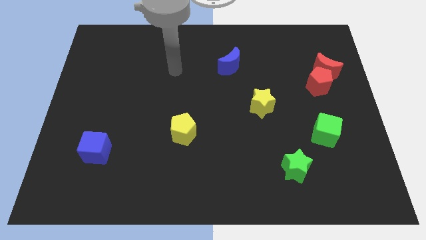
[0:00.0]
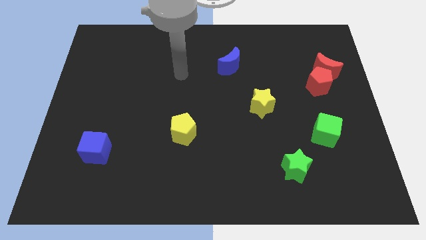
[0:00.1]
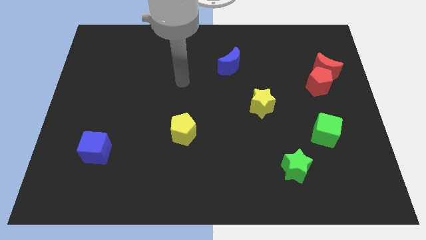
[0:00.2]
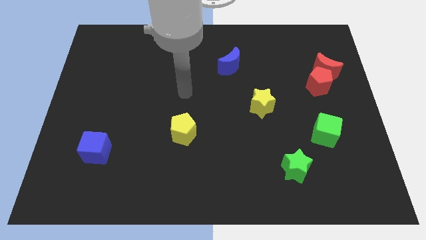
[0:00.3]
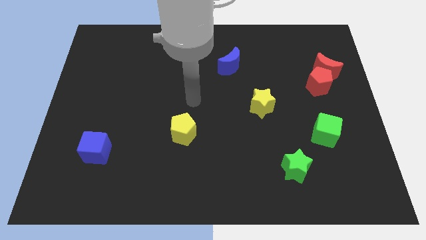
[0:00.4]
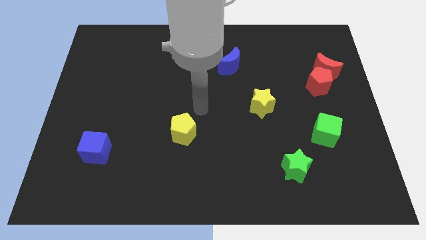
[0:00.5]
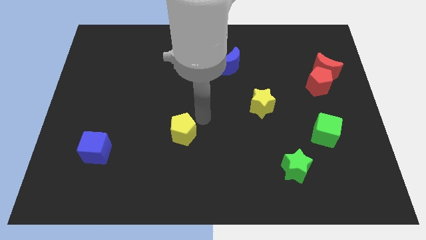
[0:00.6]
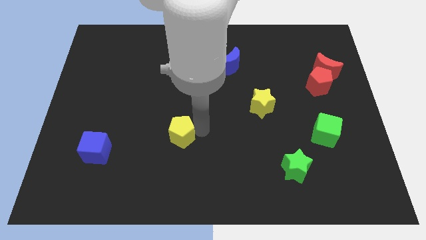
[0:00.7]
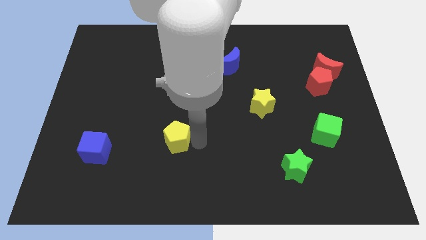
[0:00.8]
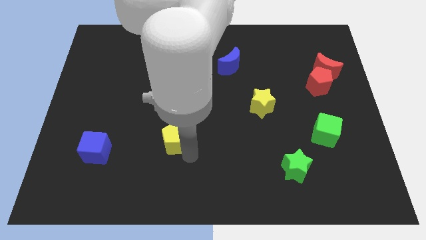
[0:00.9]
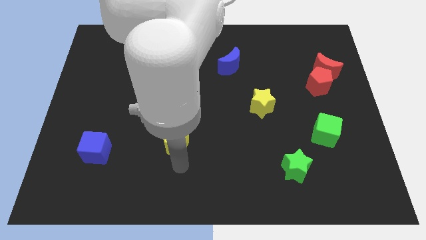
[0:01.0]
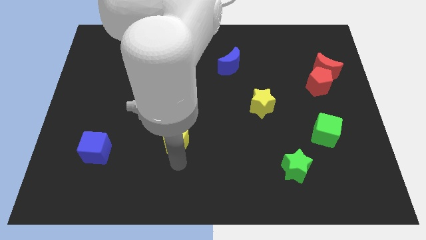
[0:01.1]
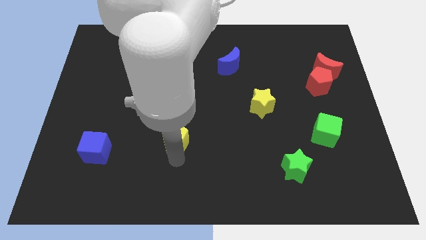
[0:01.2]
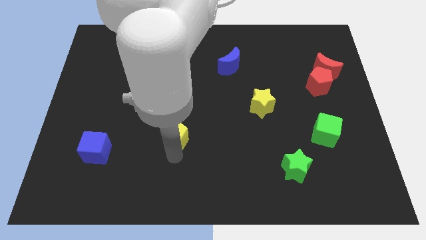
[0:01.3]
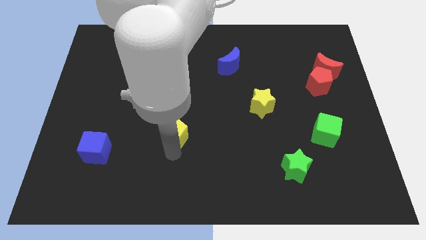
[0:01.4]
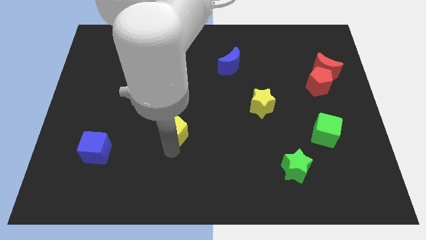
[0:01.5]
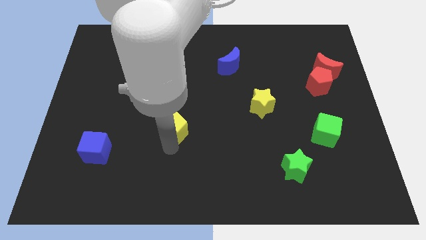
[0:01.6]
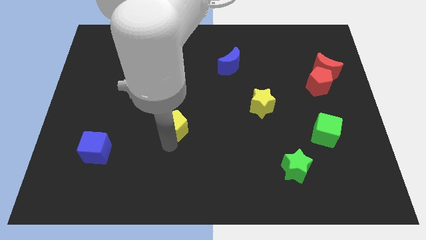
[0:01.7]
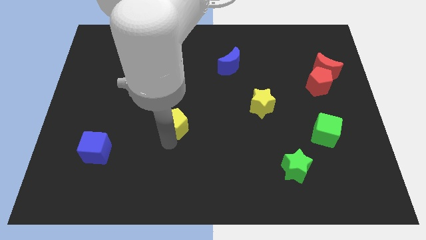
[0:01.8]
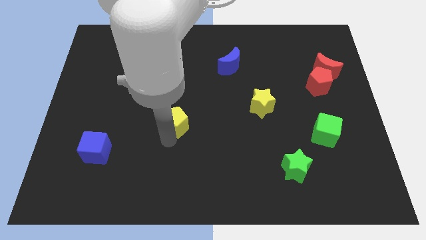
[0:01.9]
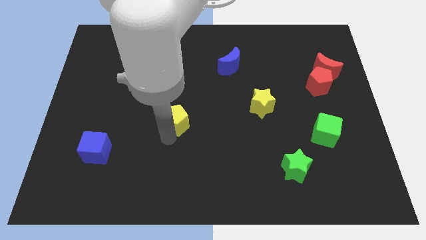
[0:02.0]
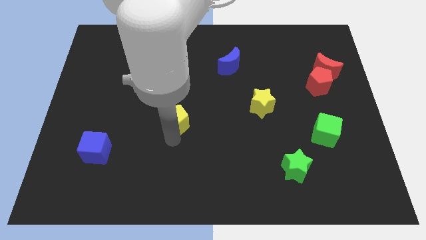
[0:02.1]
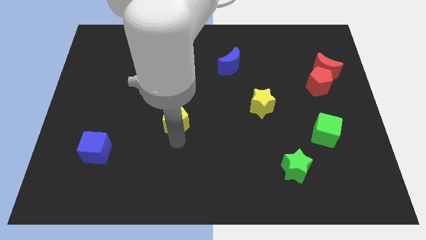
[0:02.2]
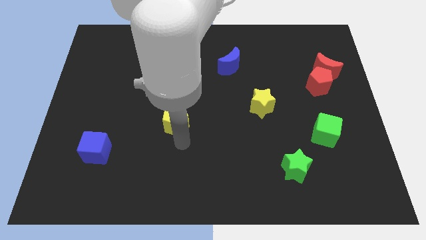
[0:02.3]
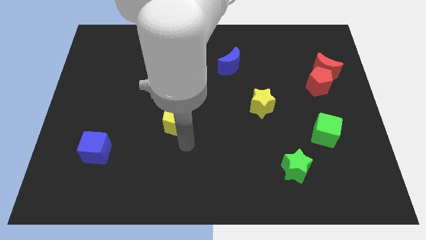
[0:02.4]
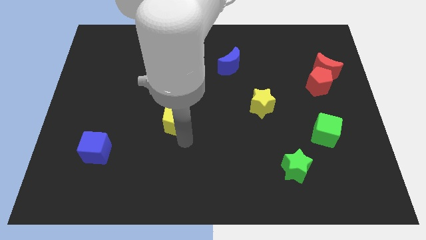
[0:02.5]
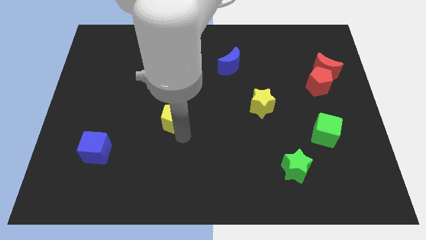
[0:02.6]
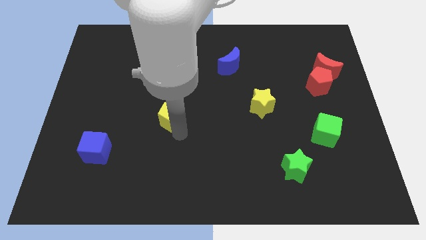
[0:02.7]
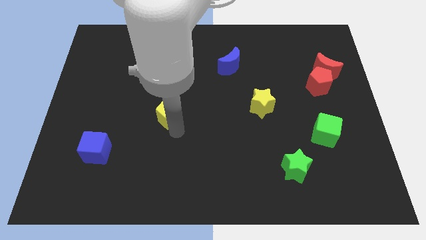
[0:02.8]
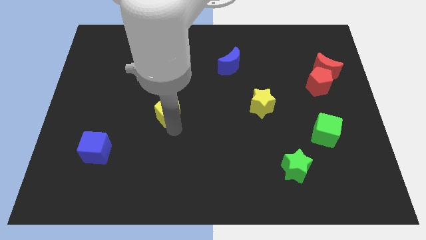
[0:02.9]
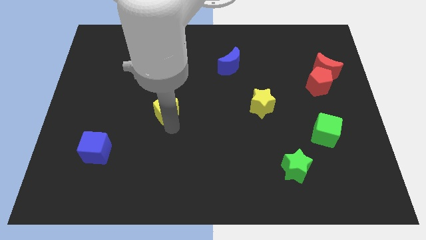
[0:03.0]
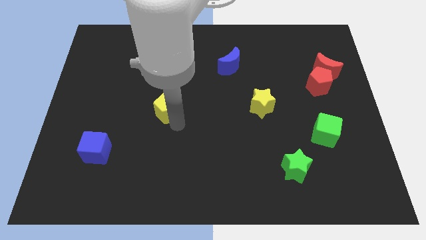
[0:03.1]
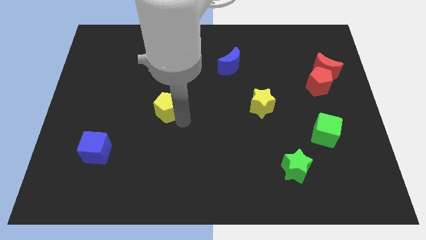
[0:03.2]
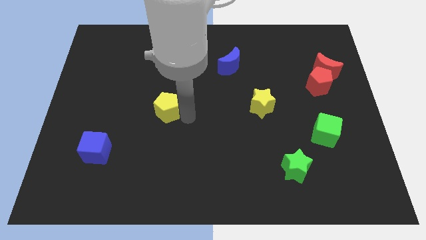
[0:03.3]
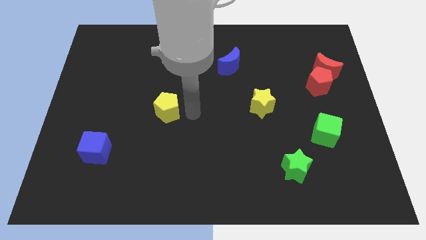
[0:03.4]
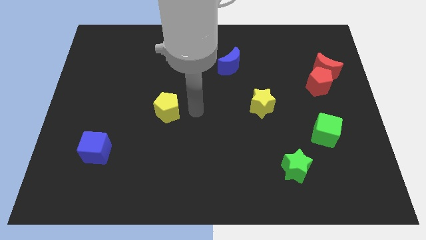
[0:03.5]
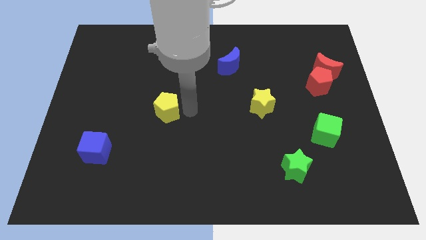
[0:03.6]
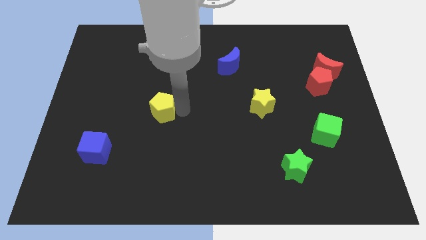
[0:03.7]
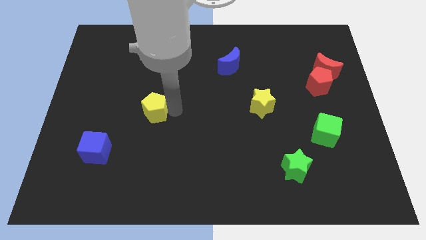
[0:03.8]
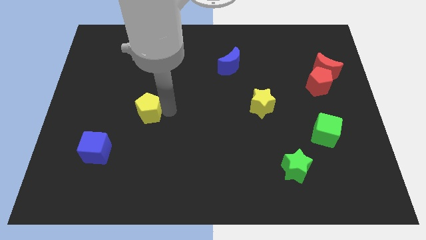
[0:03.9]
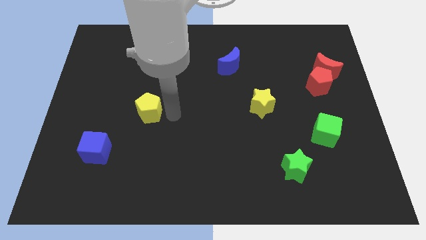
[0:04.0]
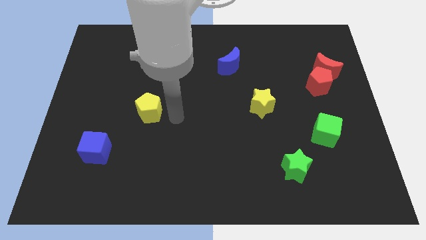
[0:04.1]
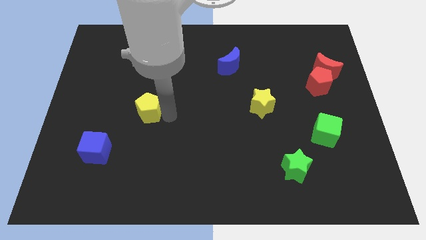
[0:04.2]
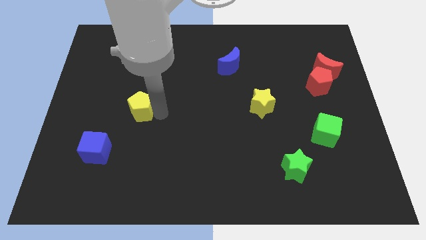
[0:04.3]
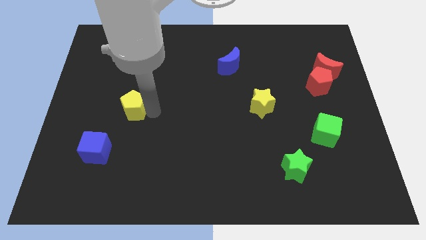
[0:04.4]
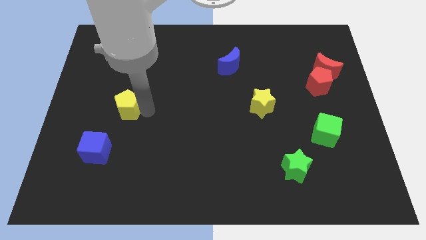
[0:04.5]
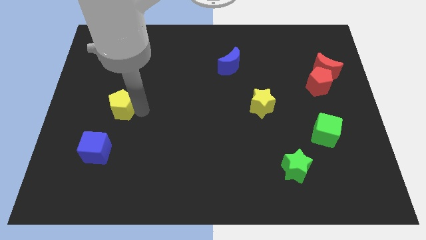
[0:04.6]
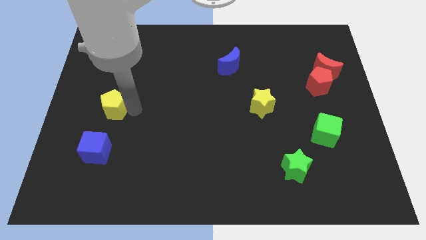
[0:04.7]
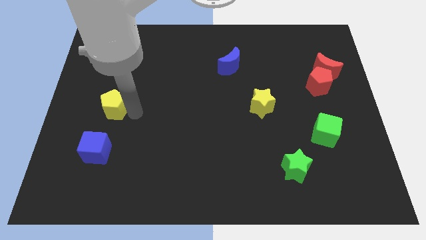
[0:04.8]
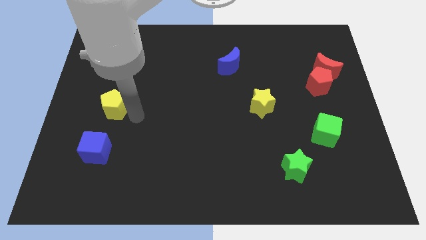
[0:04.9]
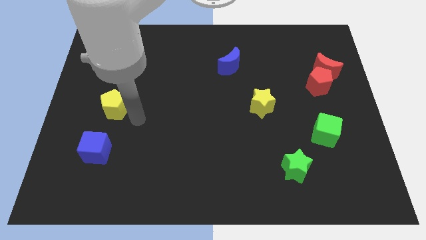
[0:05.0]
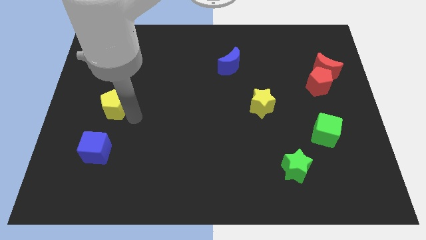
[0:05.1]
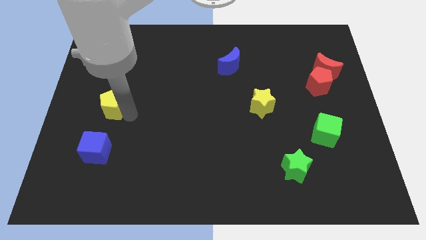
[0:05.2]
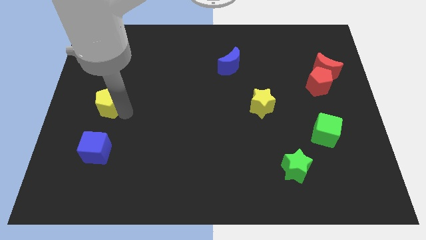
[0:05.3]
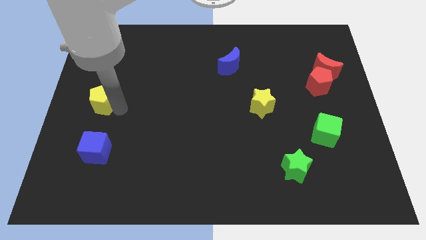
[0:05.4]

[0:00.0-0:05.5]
put the yellow pentagon to the center left

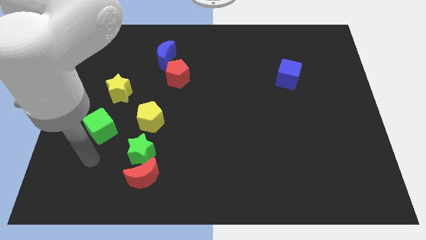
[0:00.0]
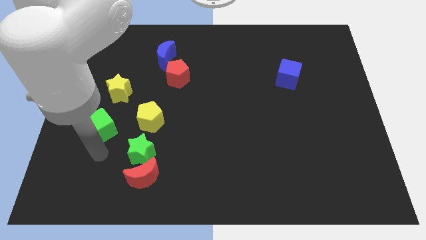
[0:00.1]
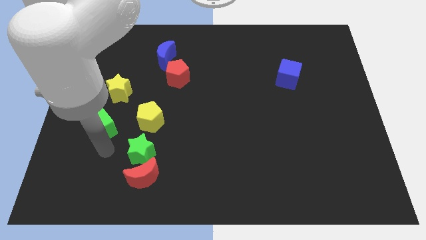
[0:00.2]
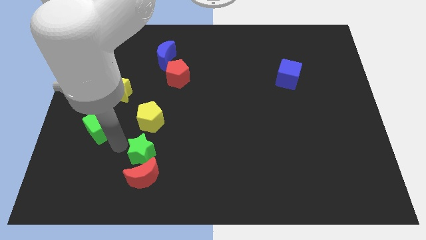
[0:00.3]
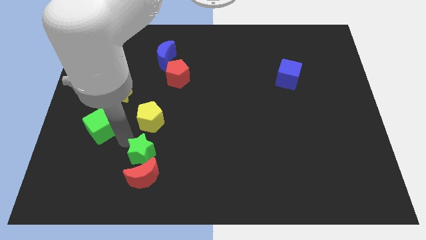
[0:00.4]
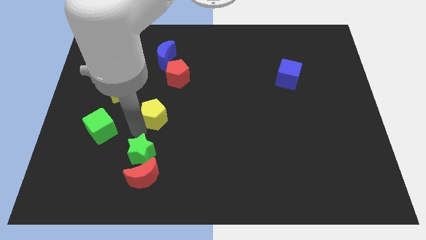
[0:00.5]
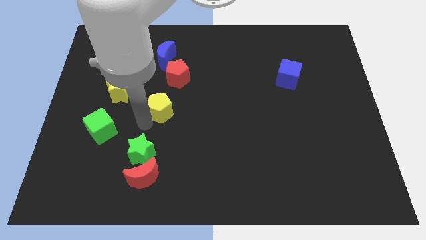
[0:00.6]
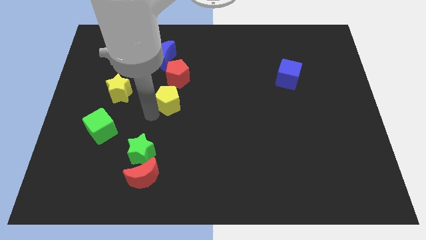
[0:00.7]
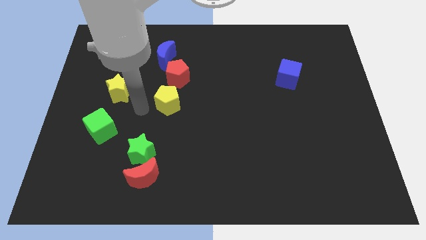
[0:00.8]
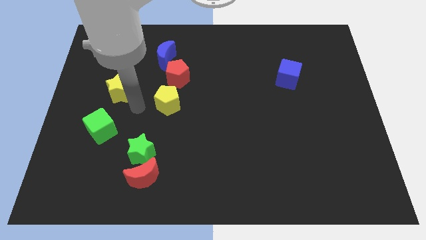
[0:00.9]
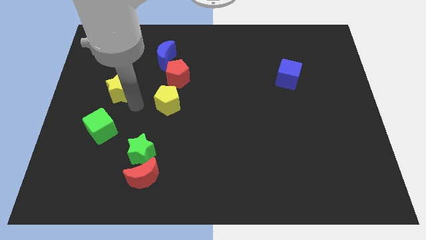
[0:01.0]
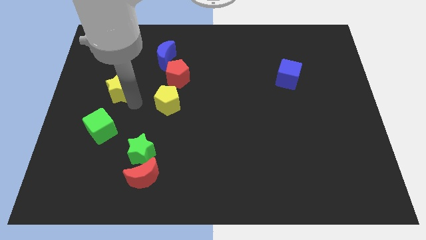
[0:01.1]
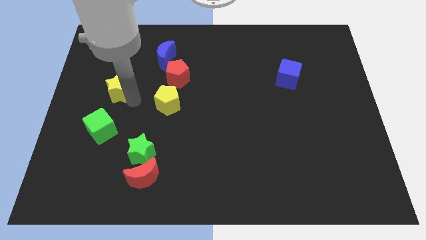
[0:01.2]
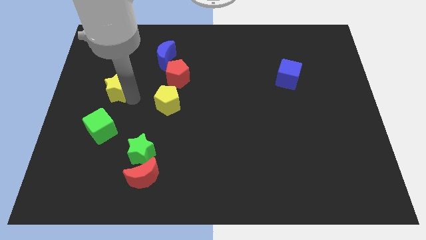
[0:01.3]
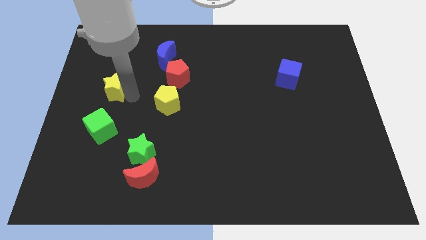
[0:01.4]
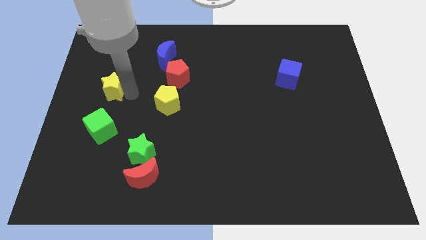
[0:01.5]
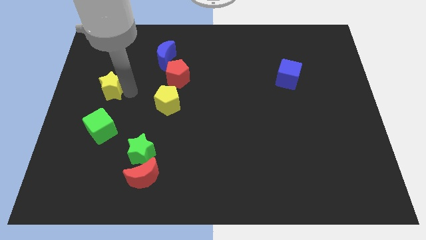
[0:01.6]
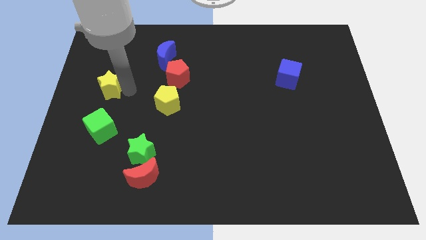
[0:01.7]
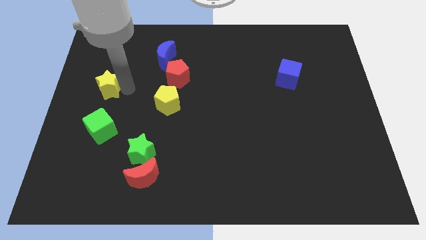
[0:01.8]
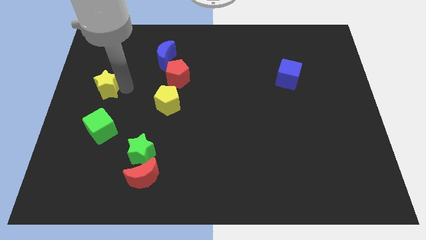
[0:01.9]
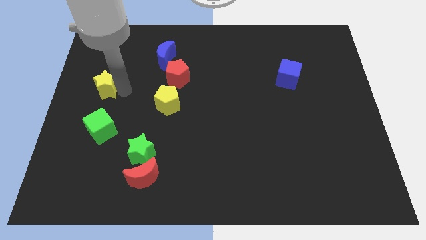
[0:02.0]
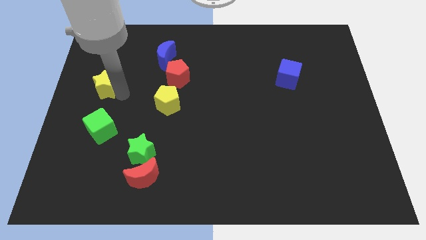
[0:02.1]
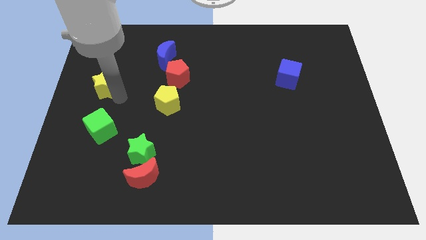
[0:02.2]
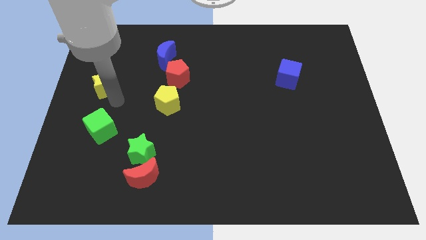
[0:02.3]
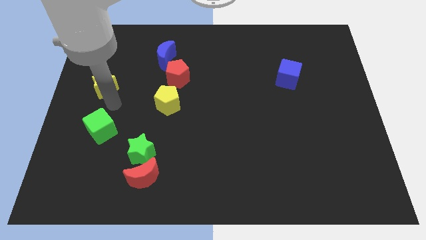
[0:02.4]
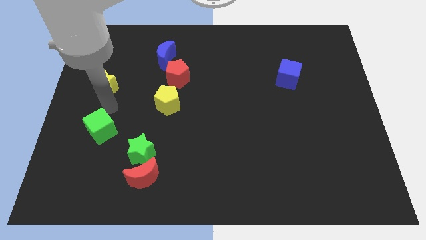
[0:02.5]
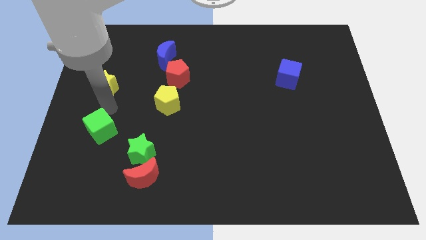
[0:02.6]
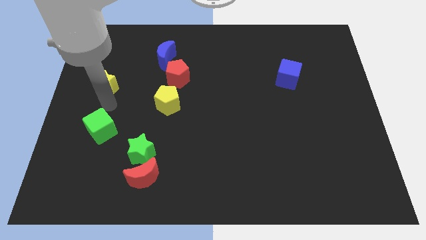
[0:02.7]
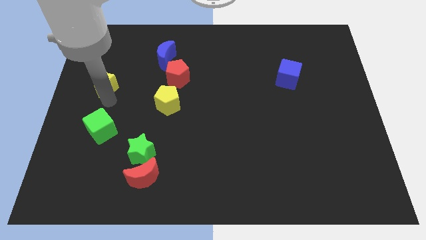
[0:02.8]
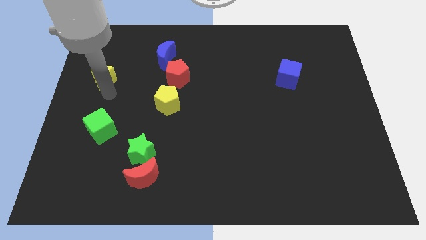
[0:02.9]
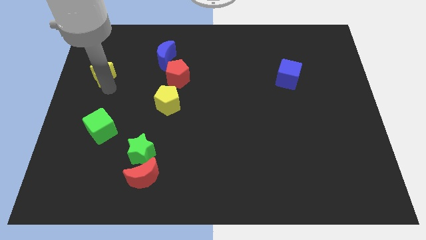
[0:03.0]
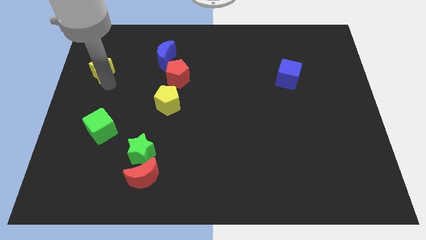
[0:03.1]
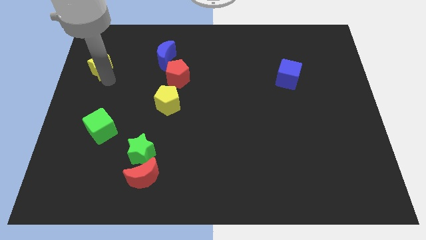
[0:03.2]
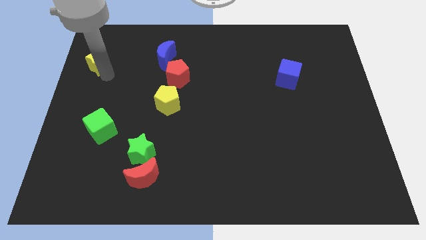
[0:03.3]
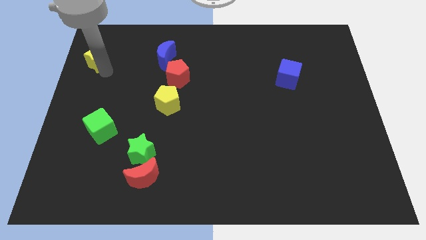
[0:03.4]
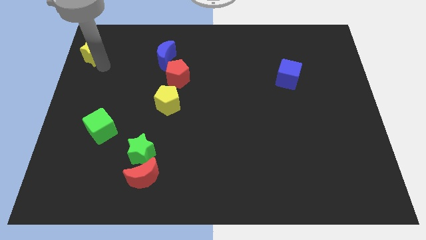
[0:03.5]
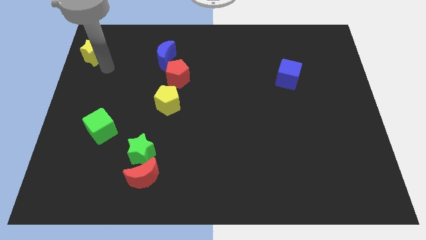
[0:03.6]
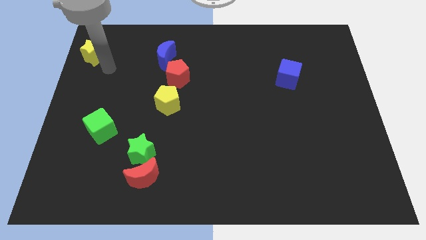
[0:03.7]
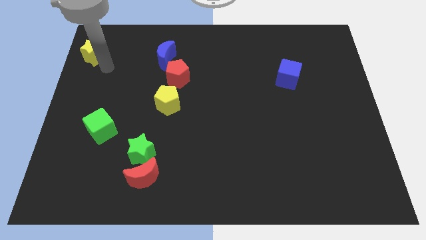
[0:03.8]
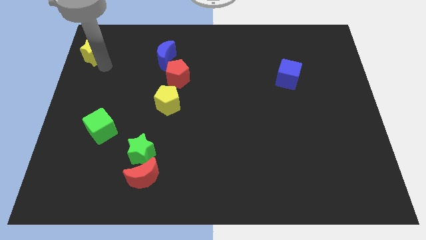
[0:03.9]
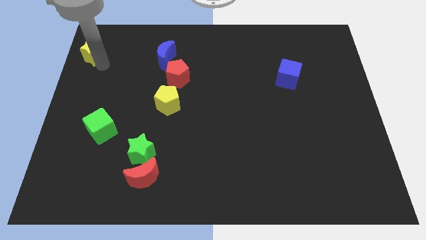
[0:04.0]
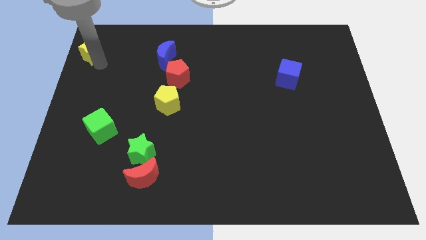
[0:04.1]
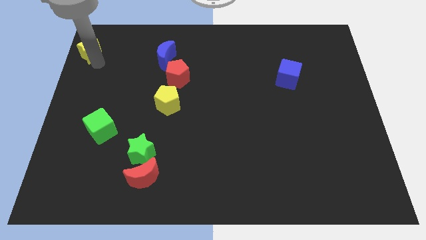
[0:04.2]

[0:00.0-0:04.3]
push the yellow star to the top left corner
